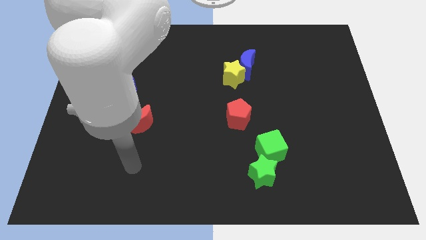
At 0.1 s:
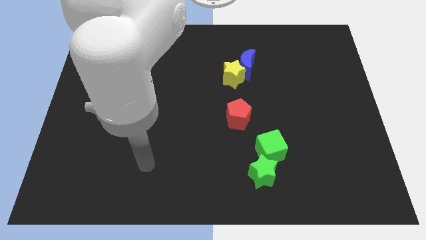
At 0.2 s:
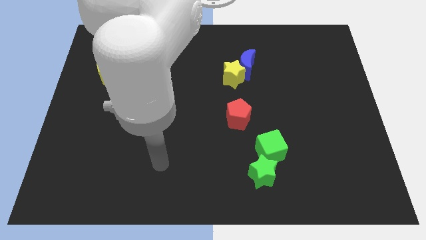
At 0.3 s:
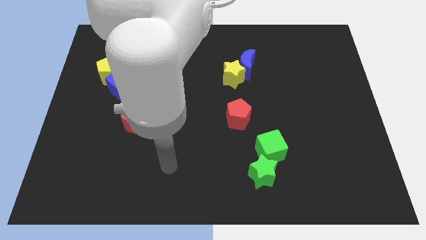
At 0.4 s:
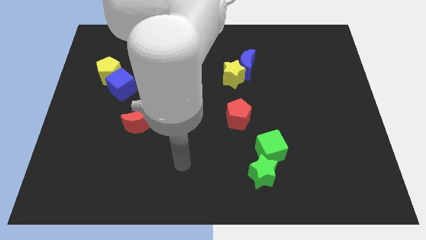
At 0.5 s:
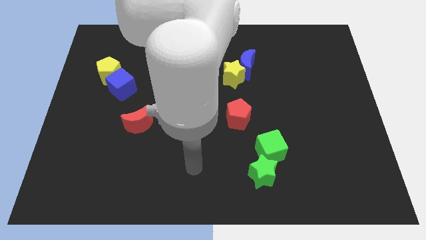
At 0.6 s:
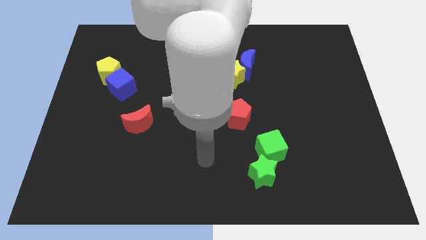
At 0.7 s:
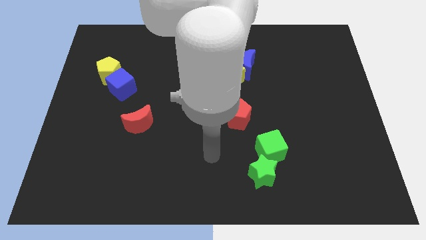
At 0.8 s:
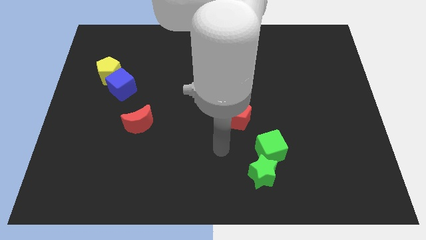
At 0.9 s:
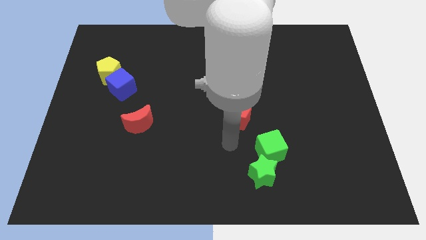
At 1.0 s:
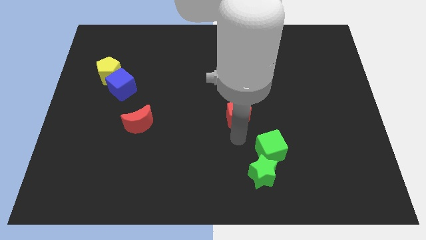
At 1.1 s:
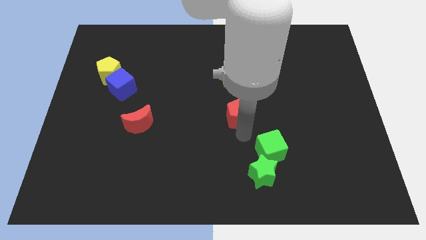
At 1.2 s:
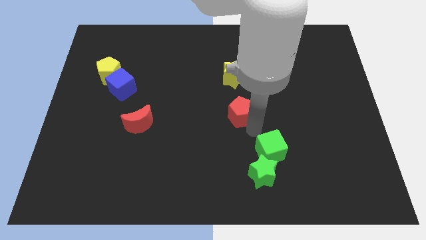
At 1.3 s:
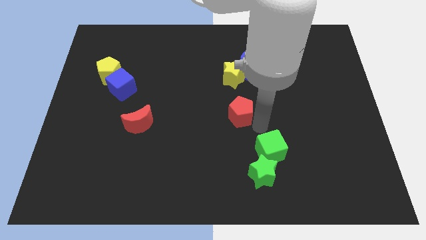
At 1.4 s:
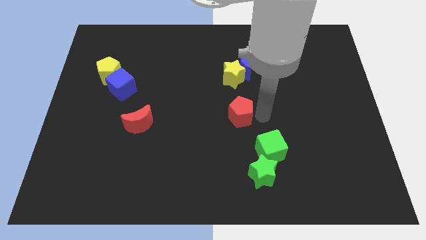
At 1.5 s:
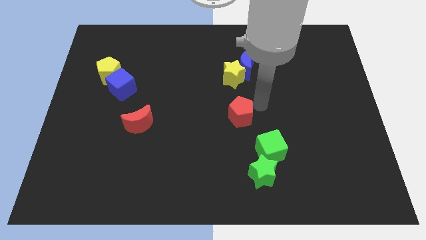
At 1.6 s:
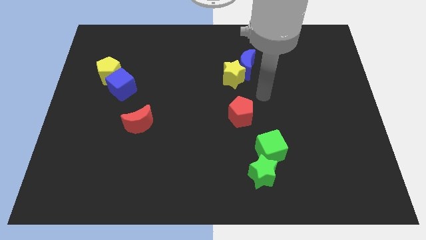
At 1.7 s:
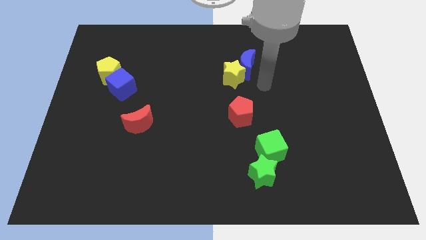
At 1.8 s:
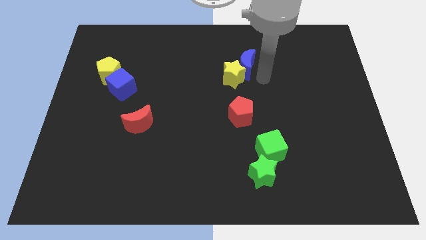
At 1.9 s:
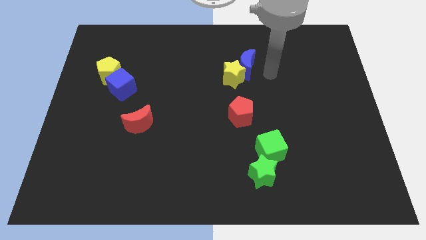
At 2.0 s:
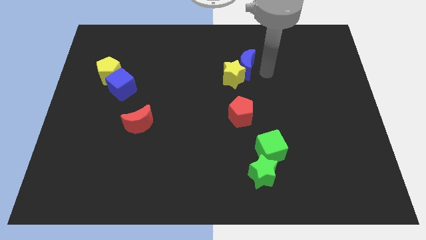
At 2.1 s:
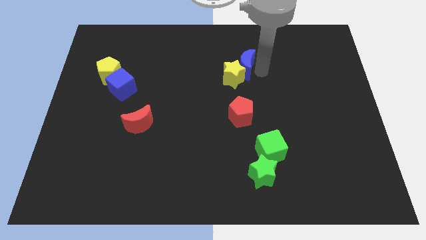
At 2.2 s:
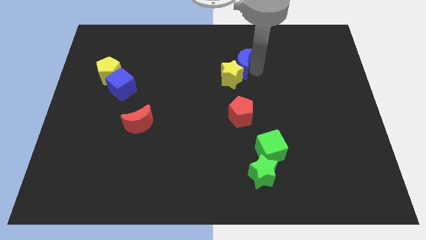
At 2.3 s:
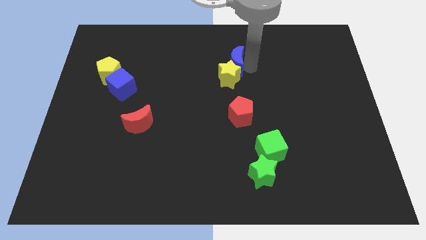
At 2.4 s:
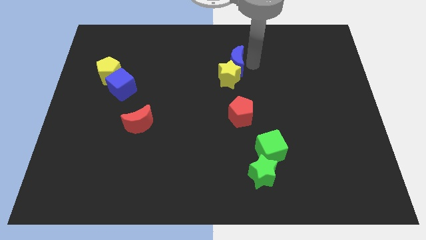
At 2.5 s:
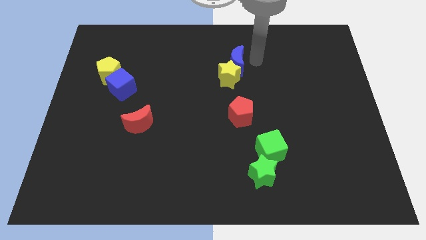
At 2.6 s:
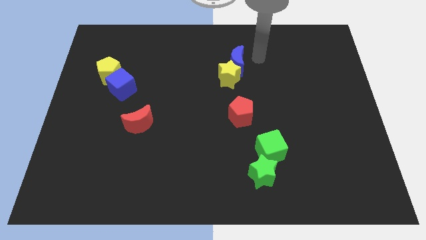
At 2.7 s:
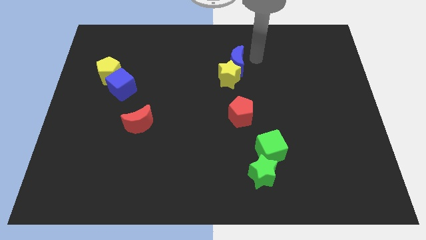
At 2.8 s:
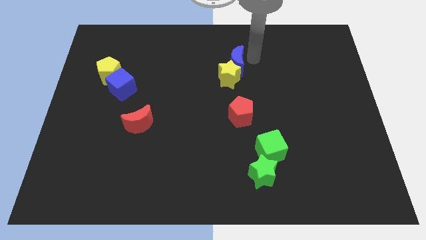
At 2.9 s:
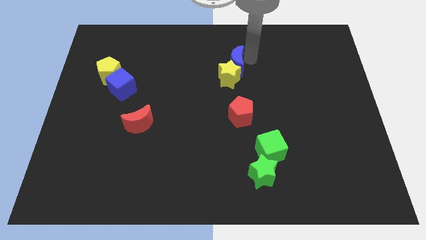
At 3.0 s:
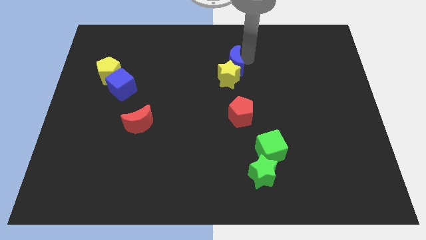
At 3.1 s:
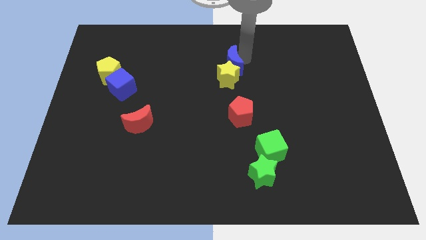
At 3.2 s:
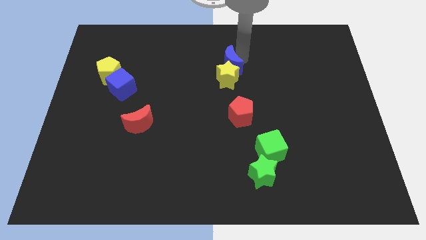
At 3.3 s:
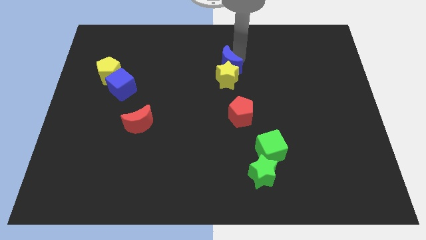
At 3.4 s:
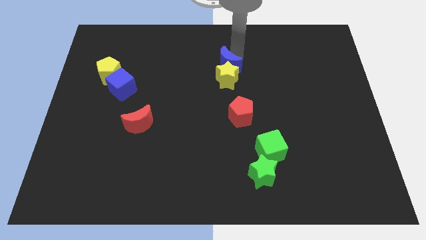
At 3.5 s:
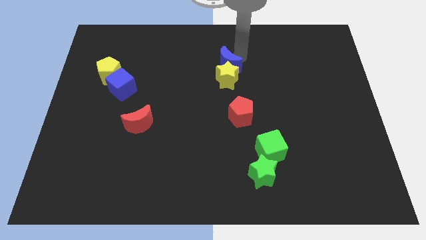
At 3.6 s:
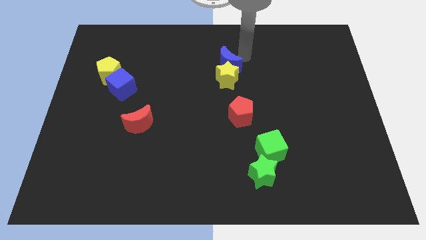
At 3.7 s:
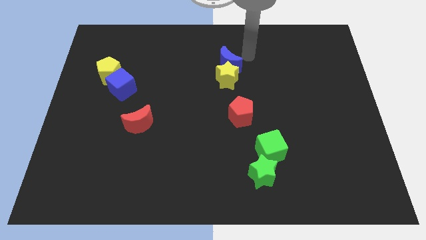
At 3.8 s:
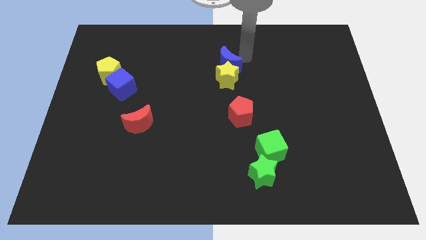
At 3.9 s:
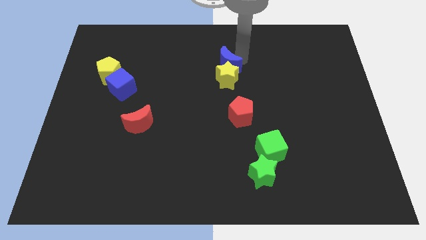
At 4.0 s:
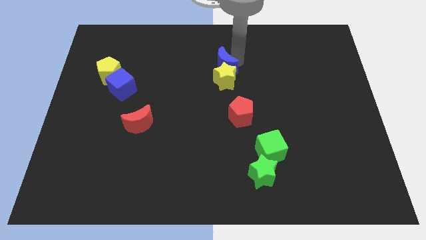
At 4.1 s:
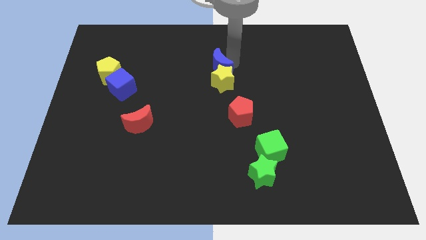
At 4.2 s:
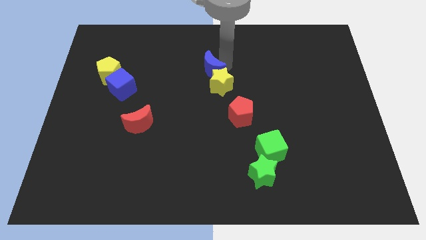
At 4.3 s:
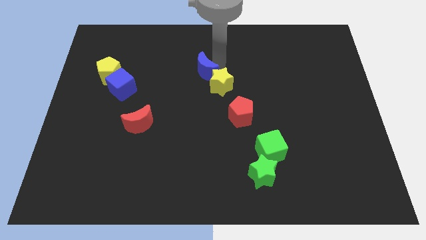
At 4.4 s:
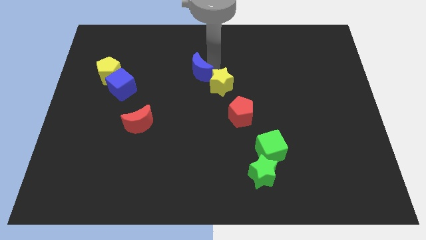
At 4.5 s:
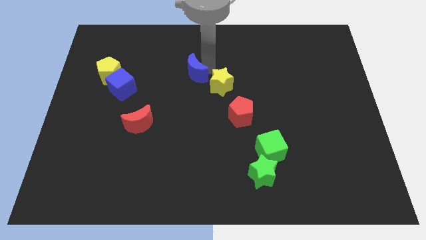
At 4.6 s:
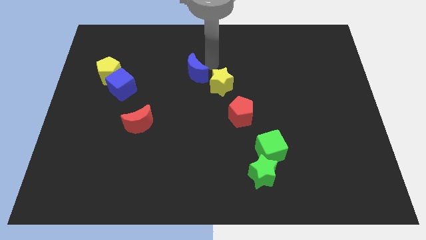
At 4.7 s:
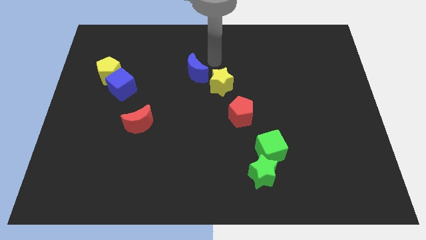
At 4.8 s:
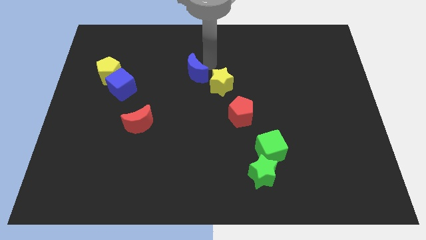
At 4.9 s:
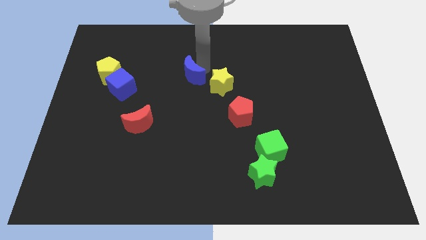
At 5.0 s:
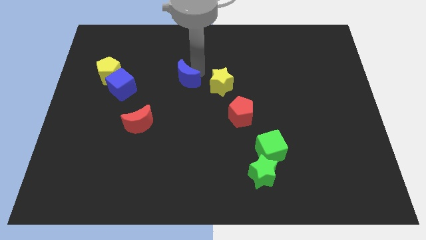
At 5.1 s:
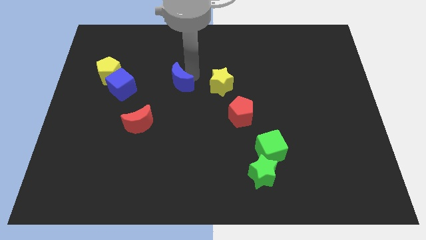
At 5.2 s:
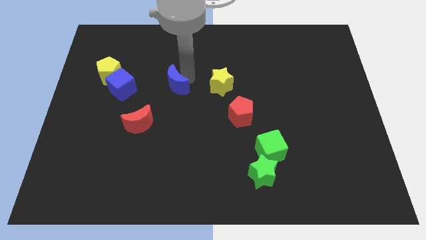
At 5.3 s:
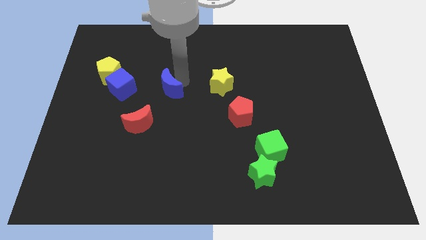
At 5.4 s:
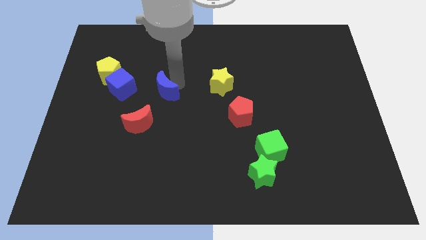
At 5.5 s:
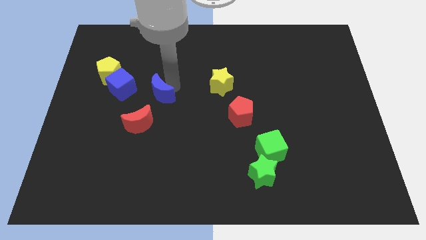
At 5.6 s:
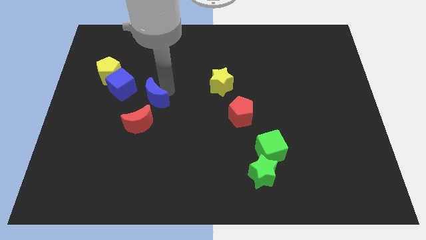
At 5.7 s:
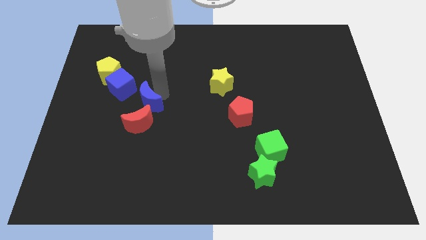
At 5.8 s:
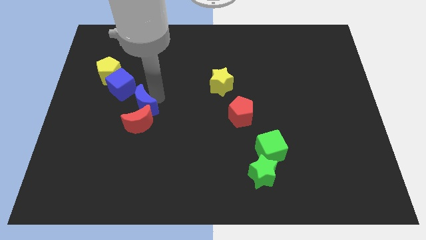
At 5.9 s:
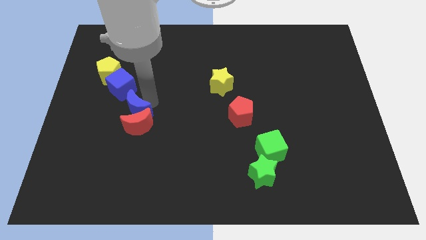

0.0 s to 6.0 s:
slide the blue moon below the blue cube

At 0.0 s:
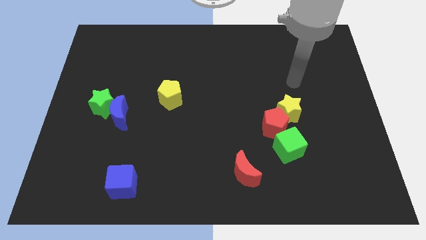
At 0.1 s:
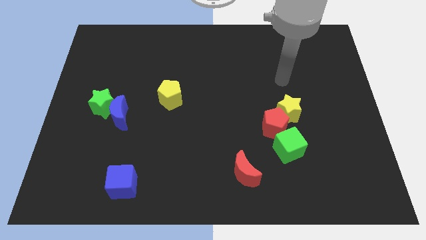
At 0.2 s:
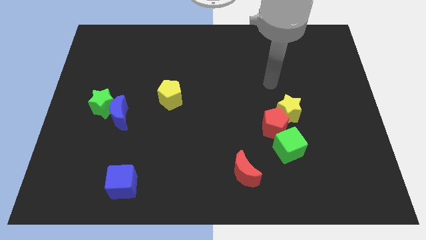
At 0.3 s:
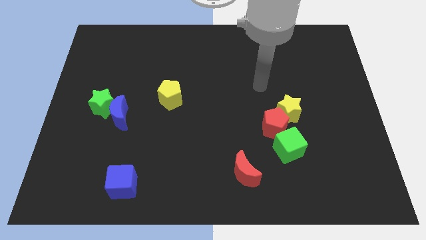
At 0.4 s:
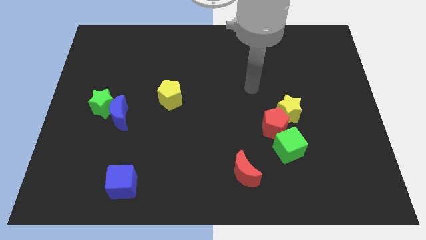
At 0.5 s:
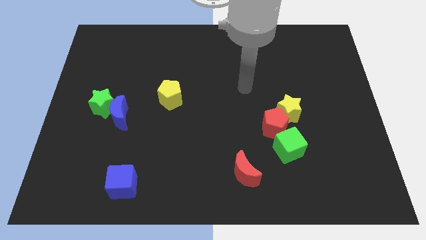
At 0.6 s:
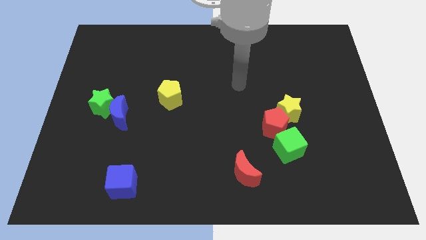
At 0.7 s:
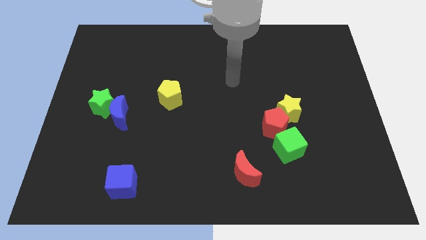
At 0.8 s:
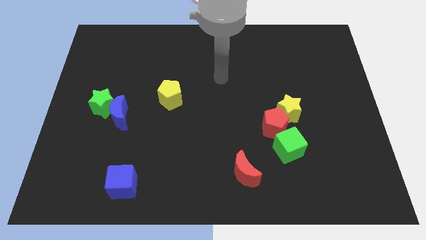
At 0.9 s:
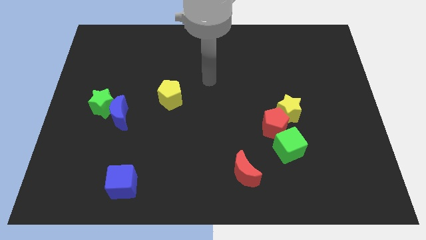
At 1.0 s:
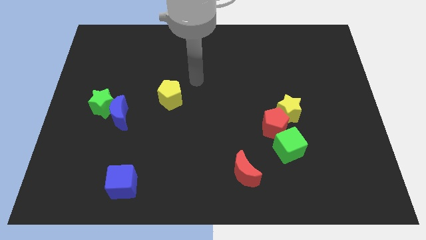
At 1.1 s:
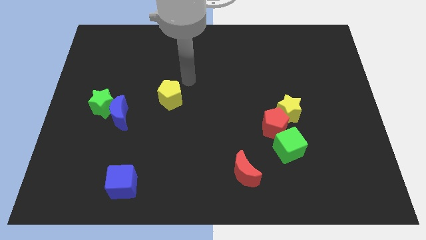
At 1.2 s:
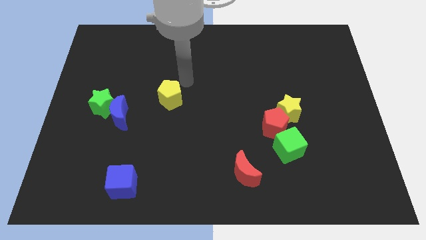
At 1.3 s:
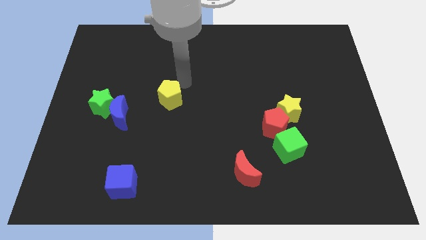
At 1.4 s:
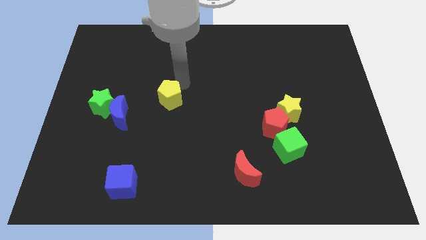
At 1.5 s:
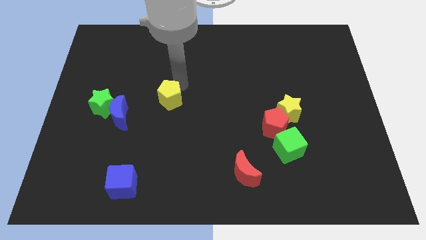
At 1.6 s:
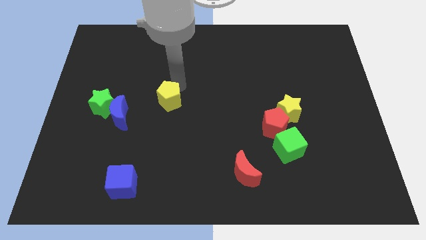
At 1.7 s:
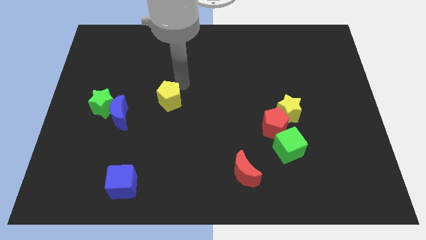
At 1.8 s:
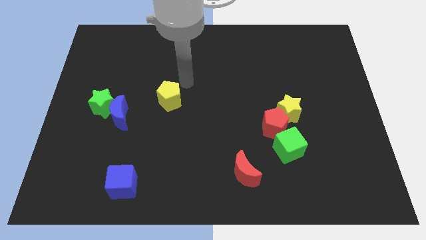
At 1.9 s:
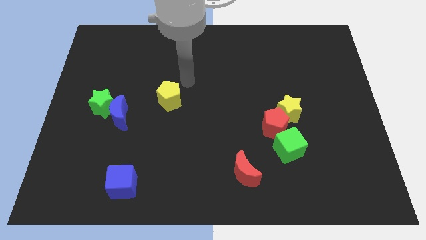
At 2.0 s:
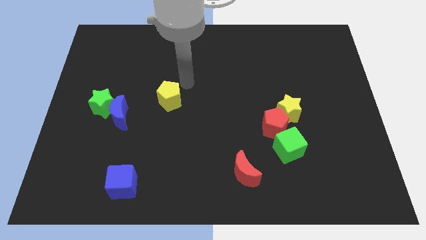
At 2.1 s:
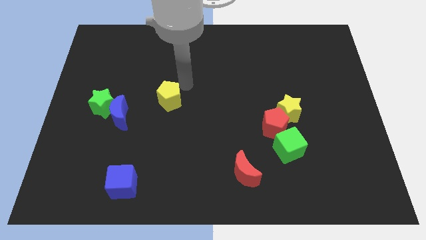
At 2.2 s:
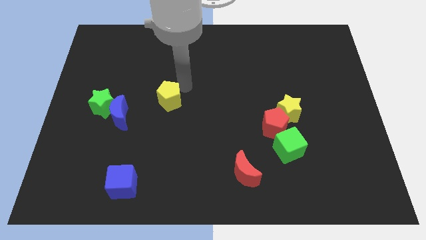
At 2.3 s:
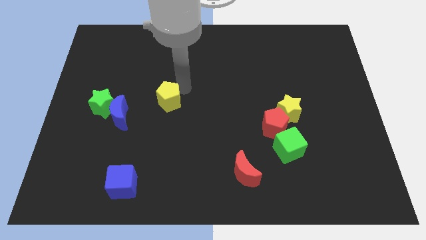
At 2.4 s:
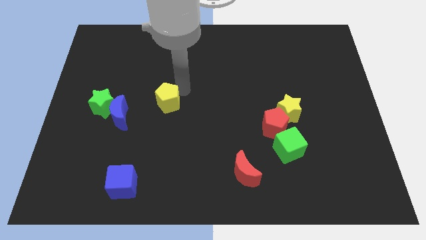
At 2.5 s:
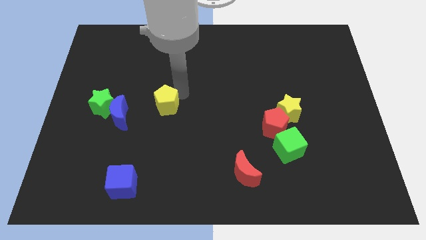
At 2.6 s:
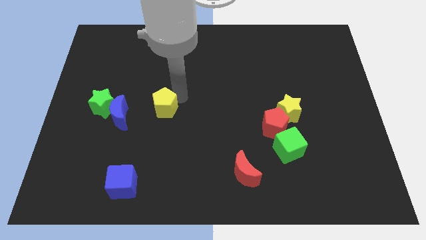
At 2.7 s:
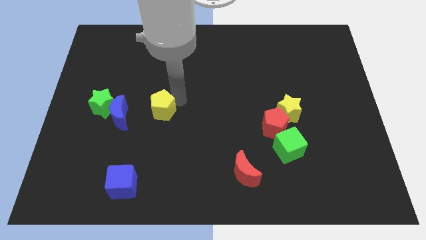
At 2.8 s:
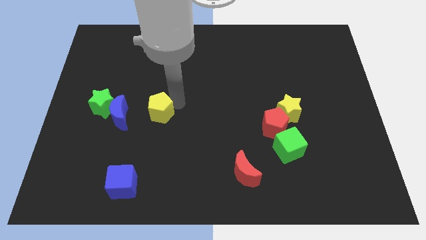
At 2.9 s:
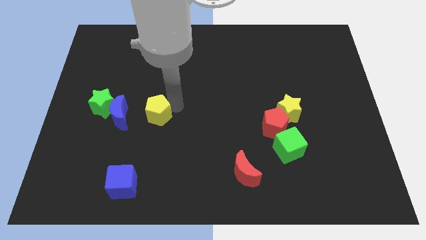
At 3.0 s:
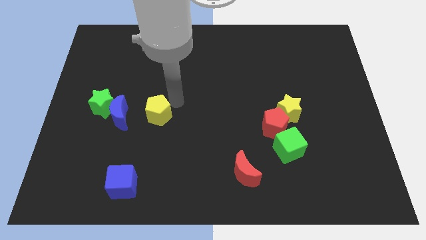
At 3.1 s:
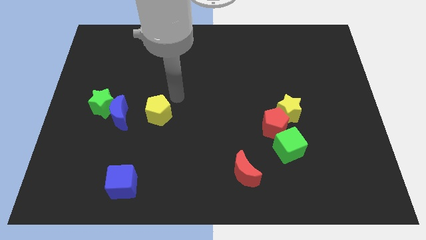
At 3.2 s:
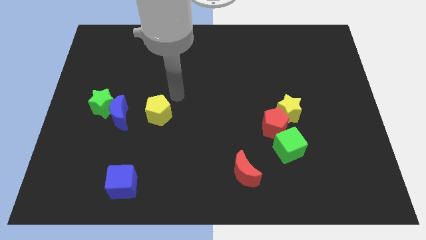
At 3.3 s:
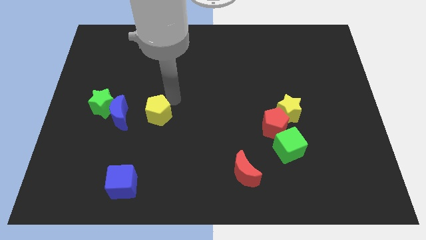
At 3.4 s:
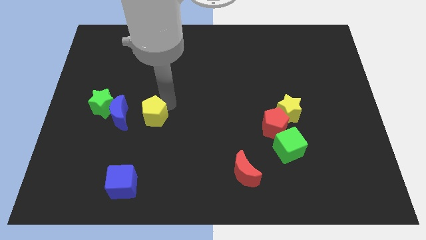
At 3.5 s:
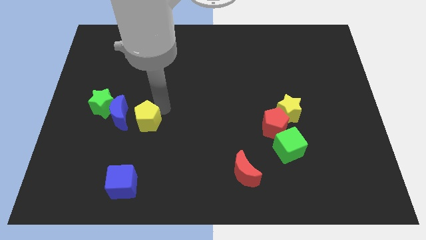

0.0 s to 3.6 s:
put the yellow pentagon to the bottom right of the blue moon
